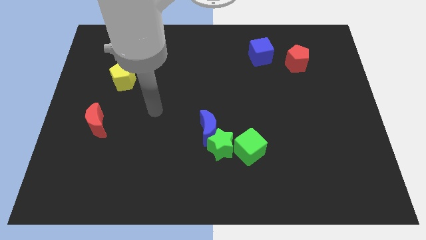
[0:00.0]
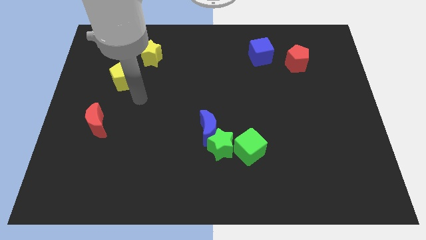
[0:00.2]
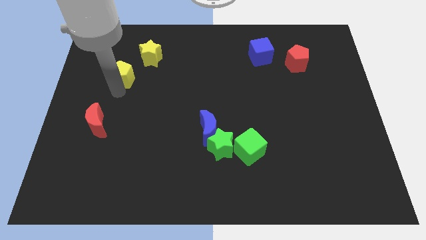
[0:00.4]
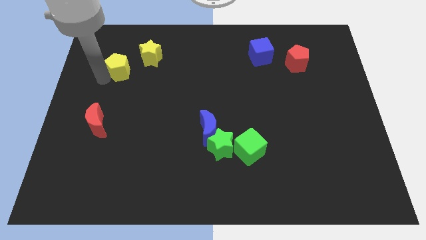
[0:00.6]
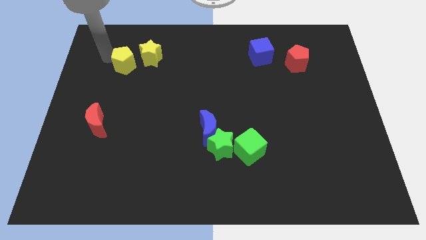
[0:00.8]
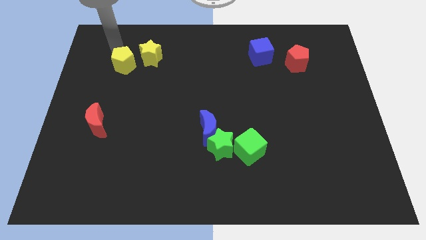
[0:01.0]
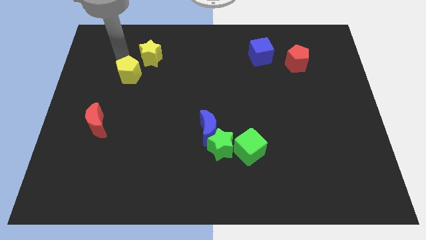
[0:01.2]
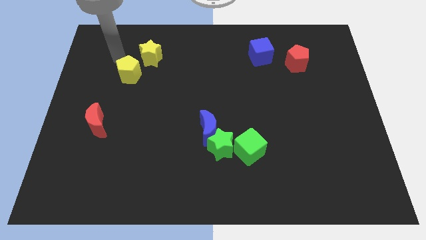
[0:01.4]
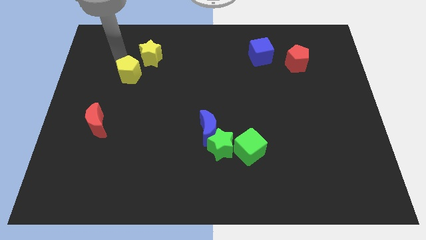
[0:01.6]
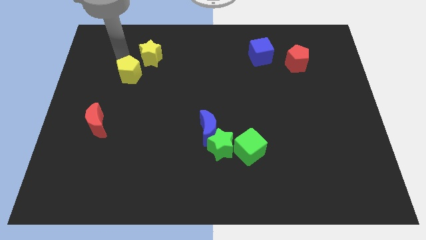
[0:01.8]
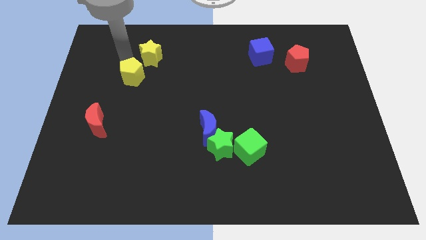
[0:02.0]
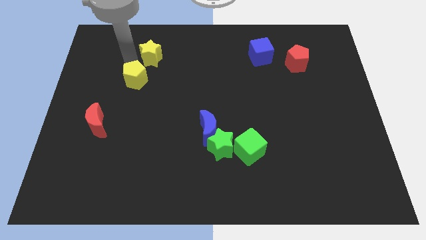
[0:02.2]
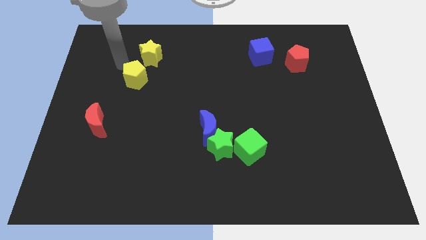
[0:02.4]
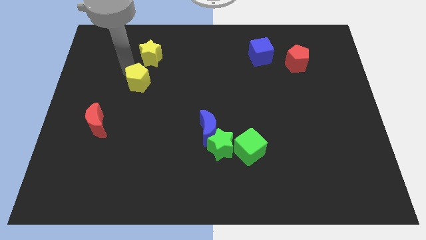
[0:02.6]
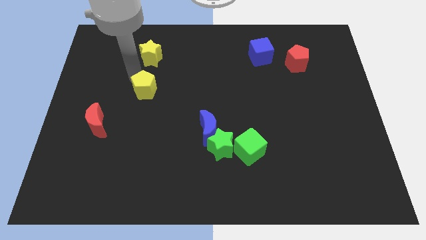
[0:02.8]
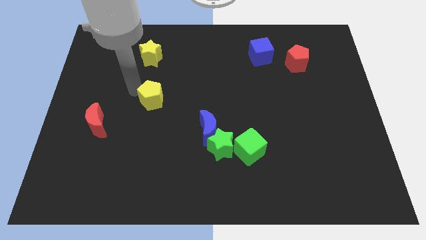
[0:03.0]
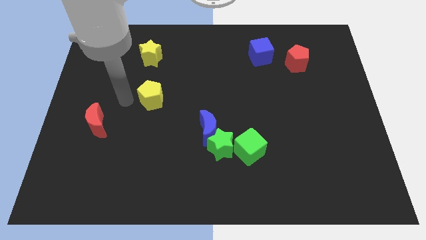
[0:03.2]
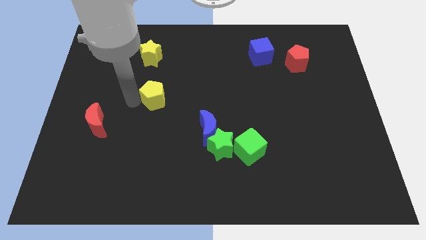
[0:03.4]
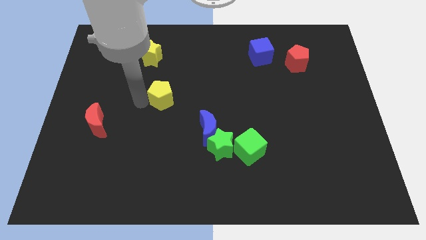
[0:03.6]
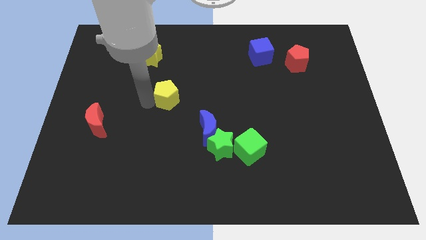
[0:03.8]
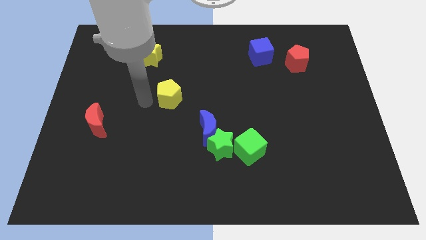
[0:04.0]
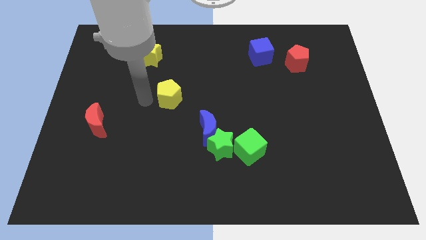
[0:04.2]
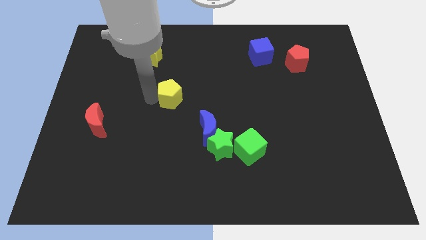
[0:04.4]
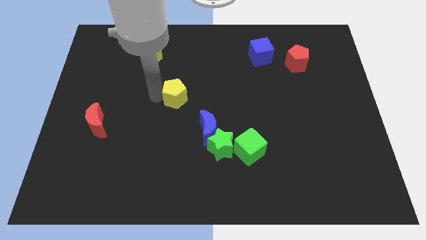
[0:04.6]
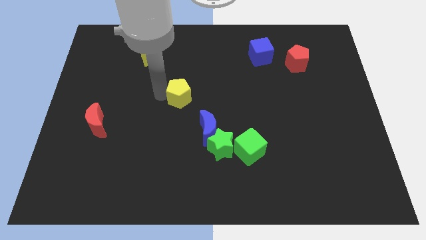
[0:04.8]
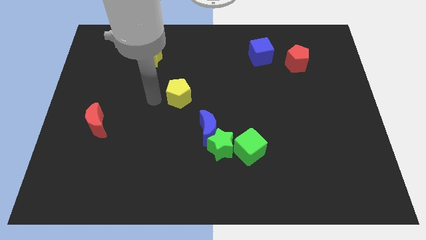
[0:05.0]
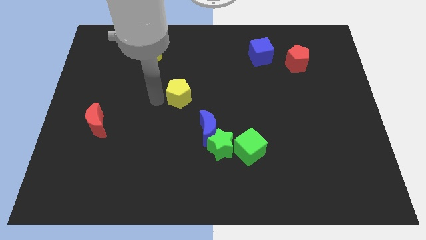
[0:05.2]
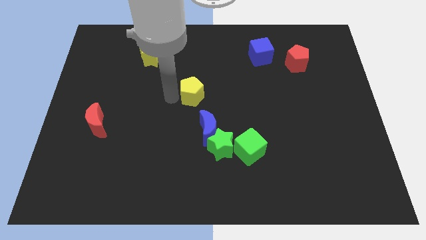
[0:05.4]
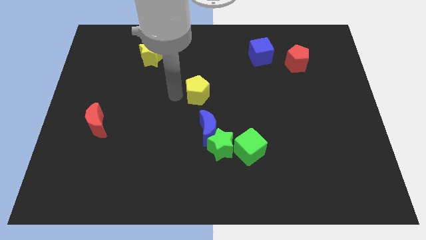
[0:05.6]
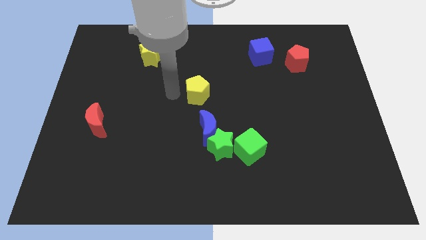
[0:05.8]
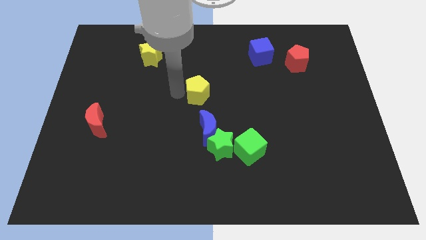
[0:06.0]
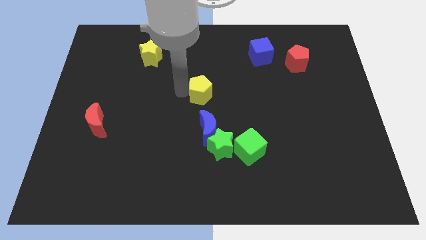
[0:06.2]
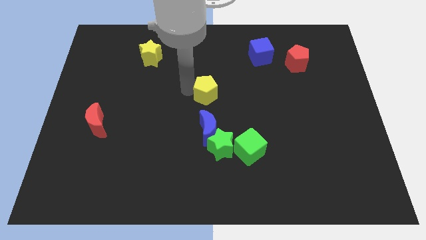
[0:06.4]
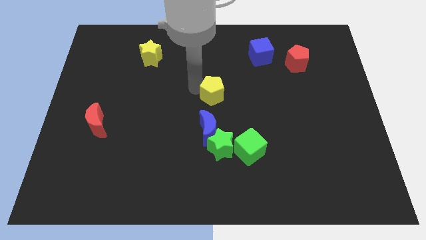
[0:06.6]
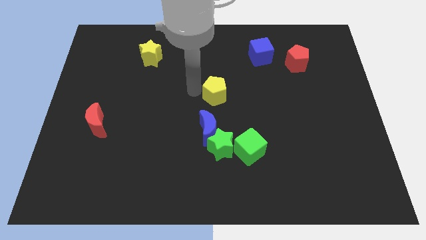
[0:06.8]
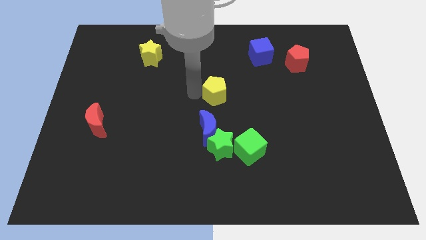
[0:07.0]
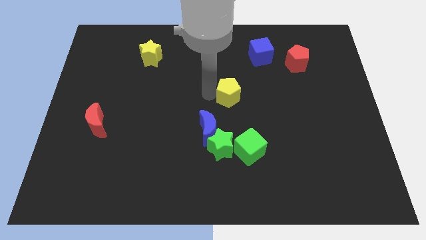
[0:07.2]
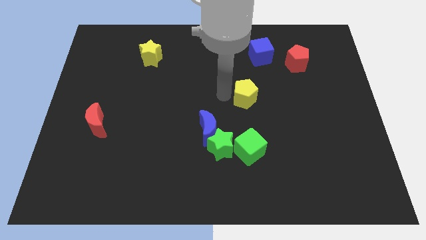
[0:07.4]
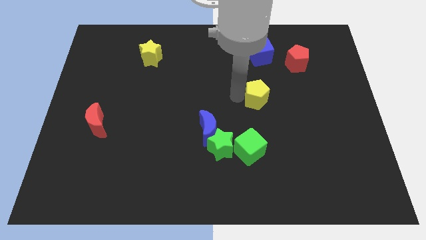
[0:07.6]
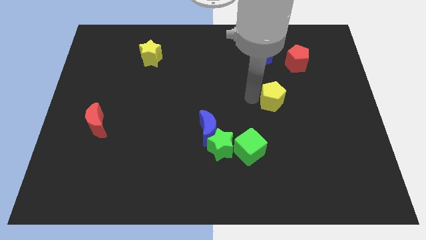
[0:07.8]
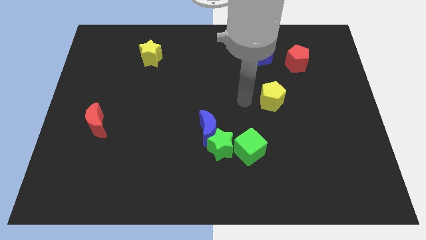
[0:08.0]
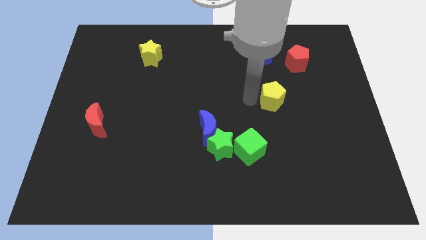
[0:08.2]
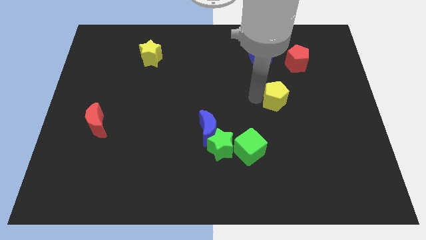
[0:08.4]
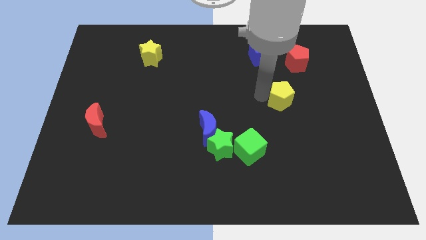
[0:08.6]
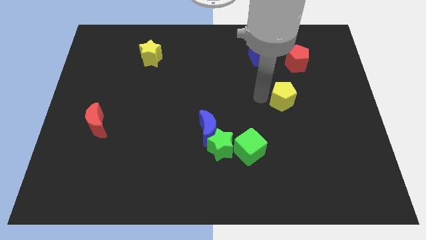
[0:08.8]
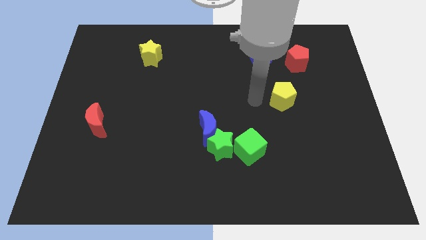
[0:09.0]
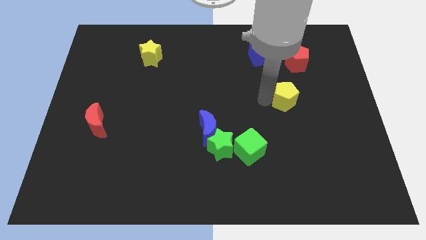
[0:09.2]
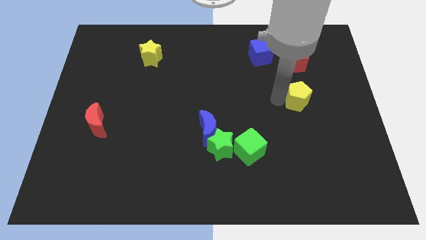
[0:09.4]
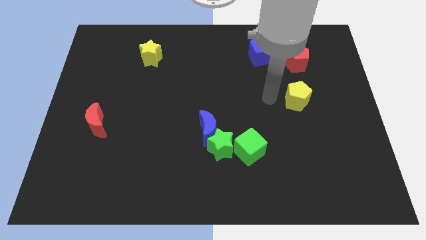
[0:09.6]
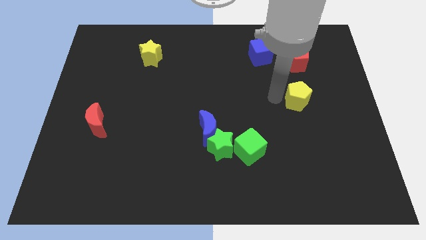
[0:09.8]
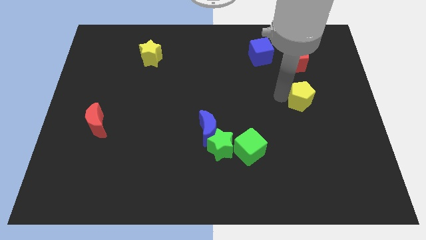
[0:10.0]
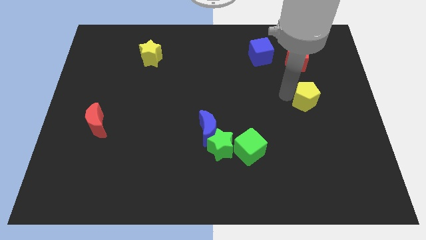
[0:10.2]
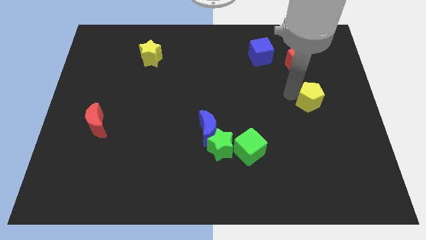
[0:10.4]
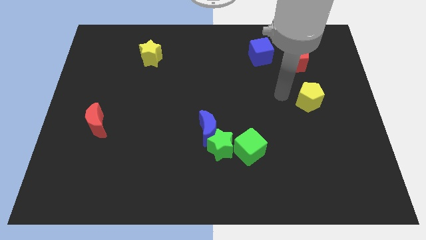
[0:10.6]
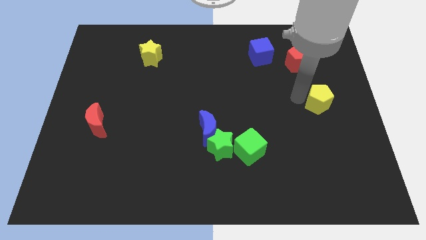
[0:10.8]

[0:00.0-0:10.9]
put the yellow pentagon to the right side
